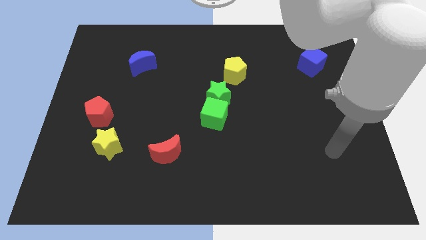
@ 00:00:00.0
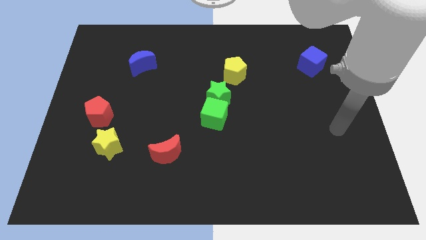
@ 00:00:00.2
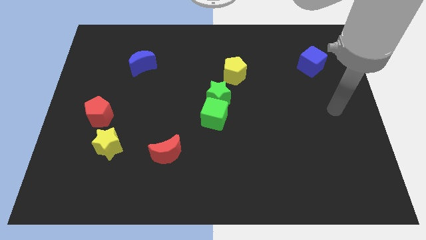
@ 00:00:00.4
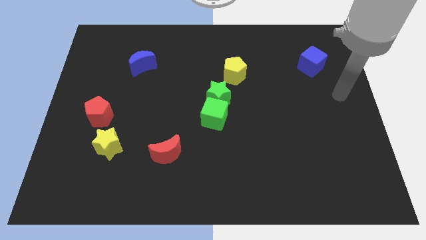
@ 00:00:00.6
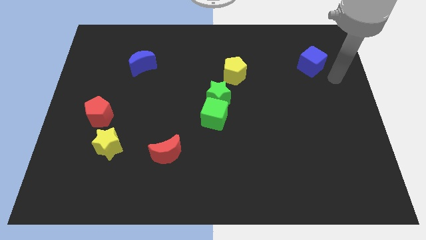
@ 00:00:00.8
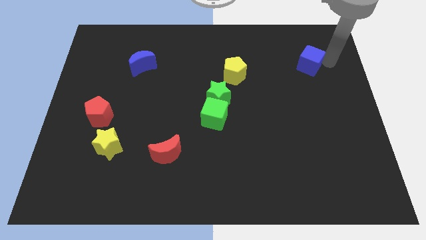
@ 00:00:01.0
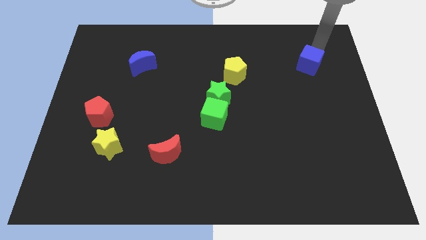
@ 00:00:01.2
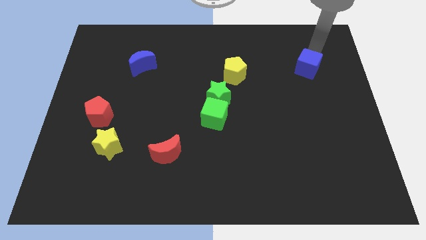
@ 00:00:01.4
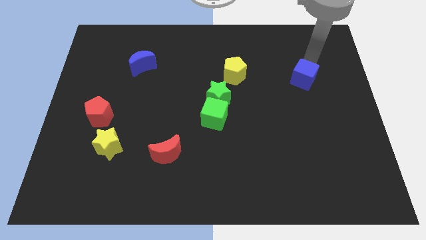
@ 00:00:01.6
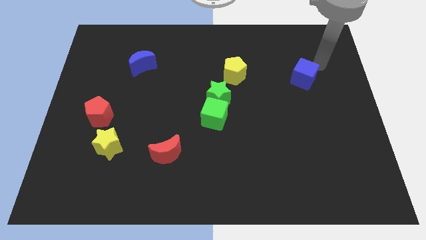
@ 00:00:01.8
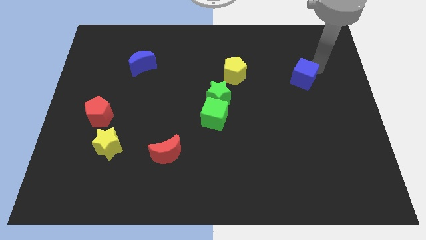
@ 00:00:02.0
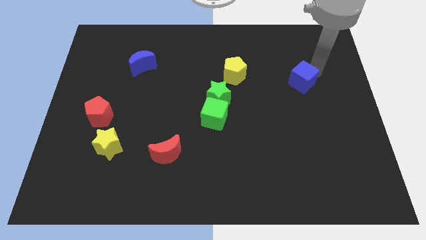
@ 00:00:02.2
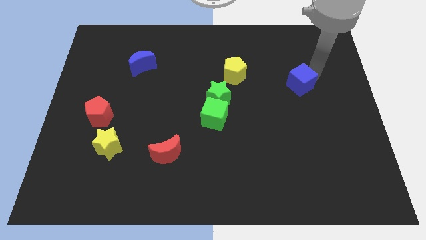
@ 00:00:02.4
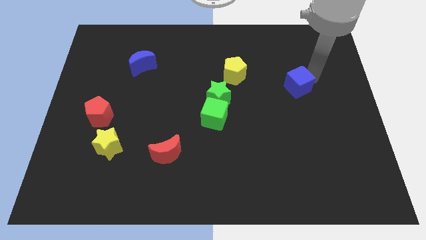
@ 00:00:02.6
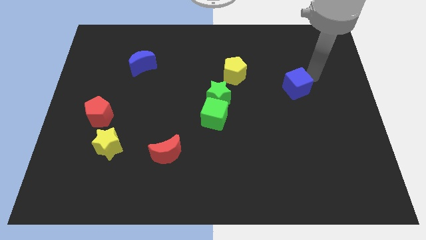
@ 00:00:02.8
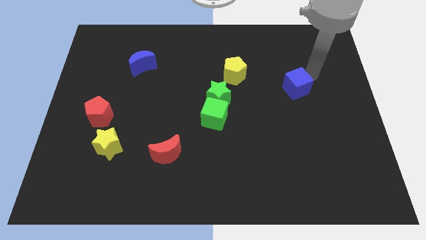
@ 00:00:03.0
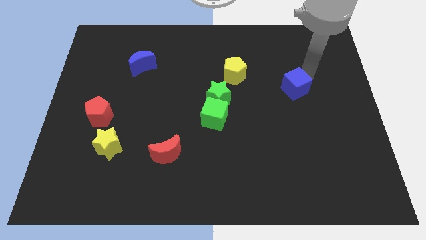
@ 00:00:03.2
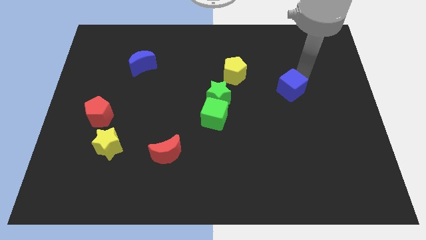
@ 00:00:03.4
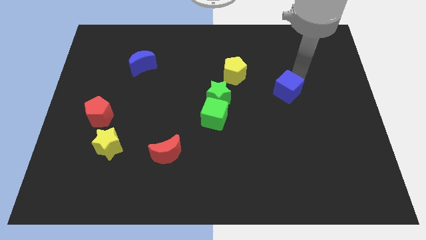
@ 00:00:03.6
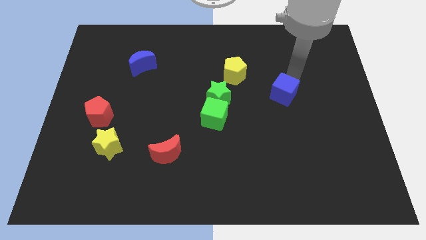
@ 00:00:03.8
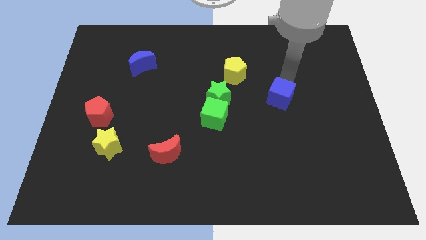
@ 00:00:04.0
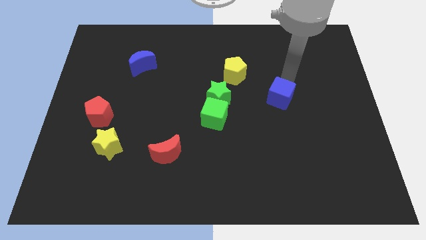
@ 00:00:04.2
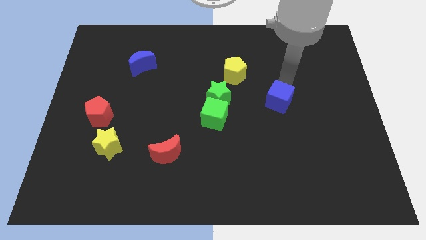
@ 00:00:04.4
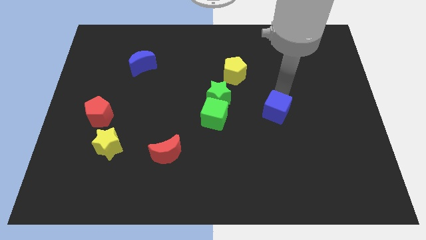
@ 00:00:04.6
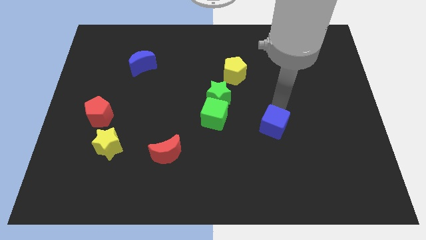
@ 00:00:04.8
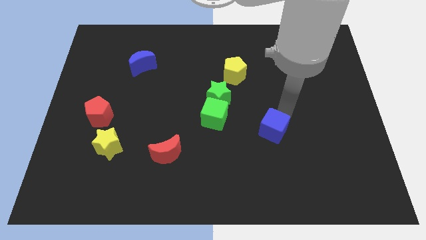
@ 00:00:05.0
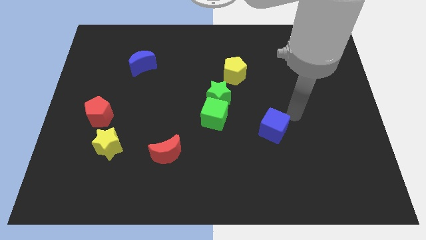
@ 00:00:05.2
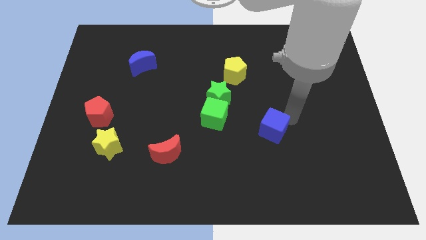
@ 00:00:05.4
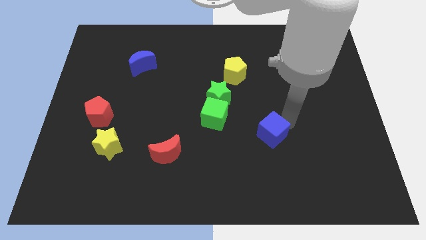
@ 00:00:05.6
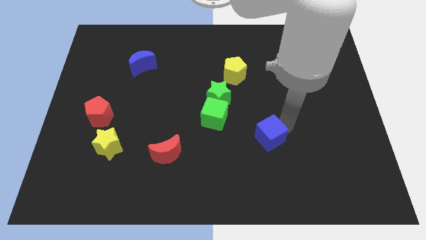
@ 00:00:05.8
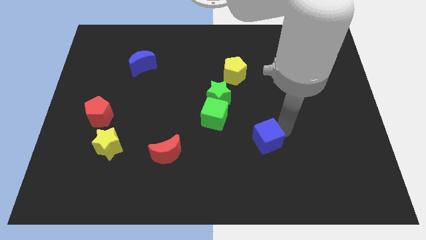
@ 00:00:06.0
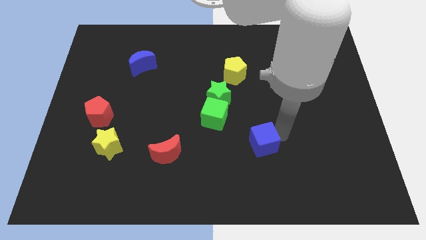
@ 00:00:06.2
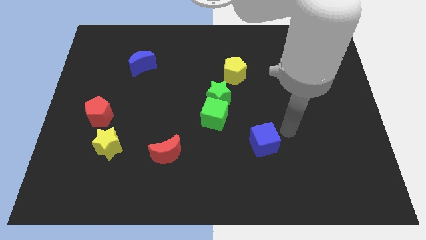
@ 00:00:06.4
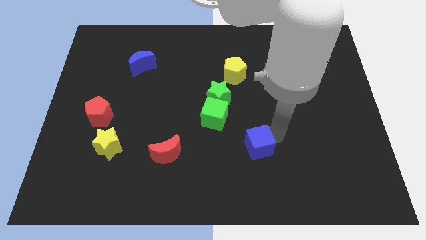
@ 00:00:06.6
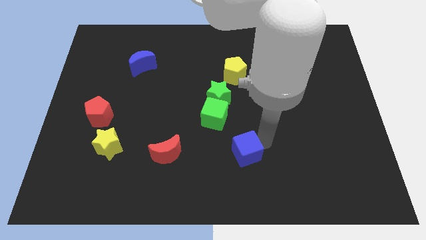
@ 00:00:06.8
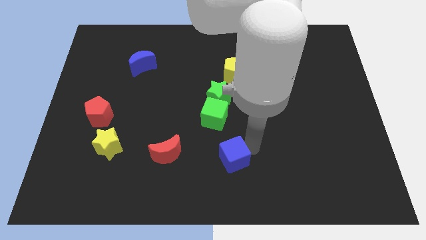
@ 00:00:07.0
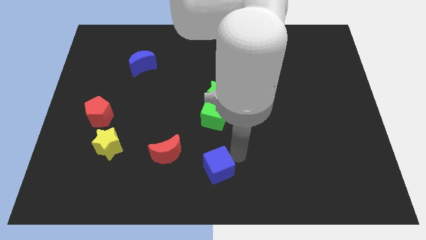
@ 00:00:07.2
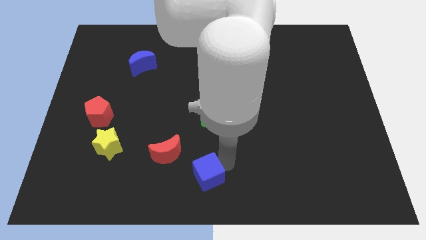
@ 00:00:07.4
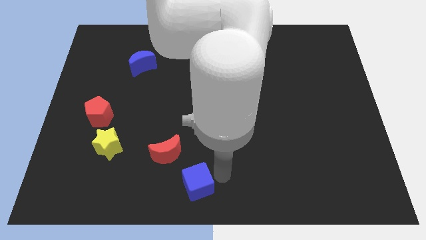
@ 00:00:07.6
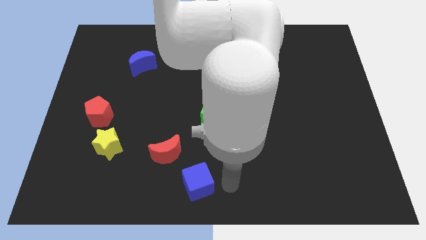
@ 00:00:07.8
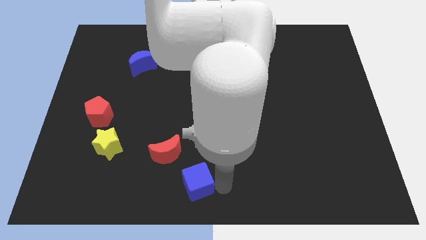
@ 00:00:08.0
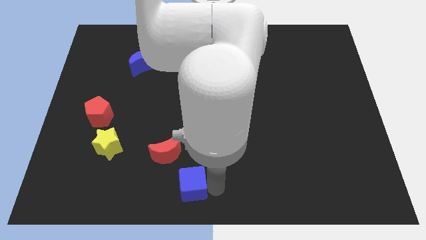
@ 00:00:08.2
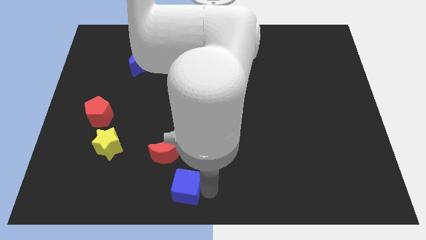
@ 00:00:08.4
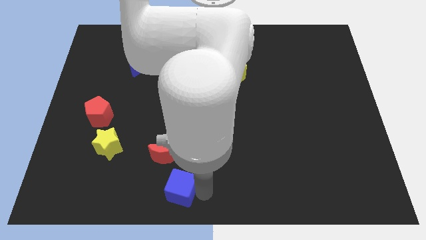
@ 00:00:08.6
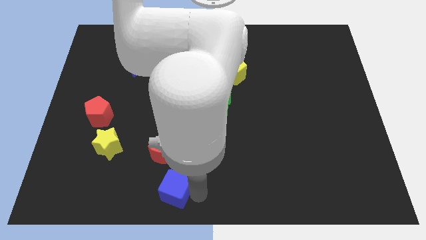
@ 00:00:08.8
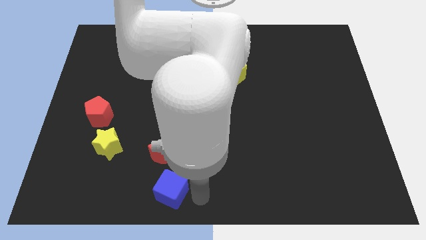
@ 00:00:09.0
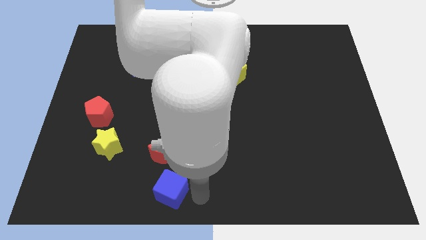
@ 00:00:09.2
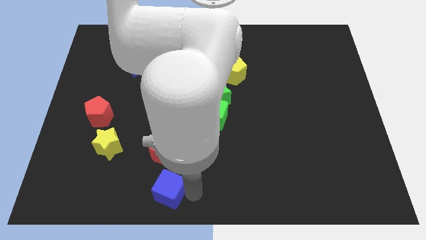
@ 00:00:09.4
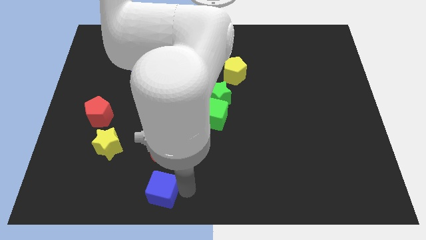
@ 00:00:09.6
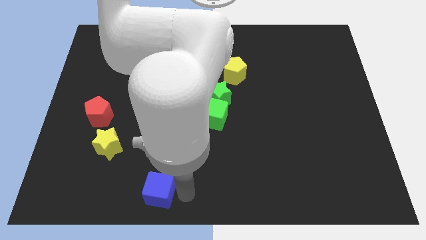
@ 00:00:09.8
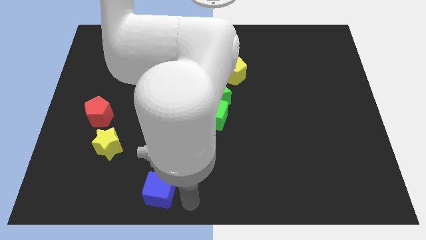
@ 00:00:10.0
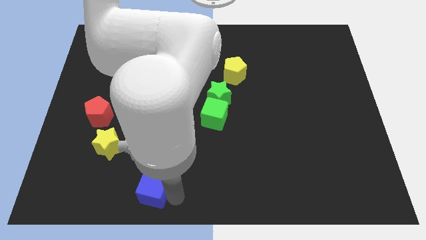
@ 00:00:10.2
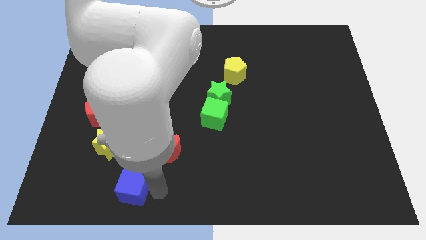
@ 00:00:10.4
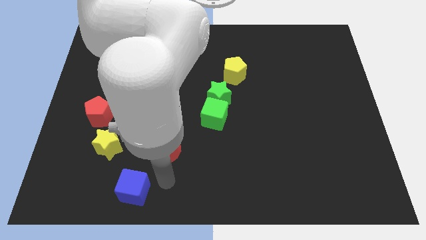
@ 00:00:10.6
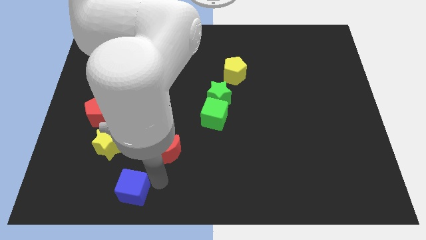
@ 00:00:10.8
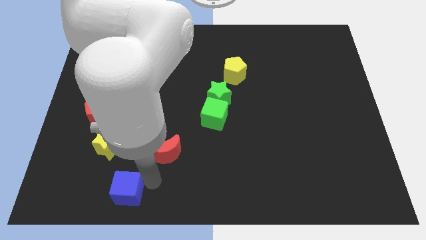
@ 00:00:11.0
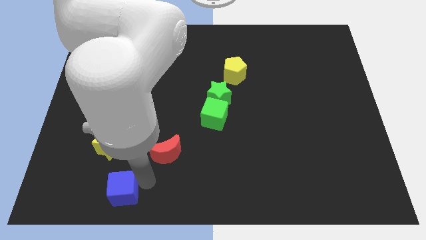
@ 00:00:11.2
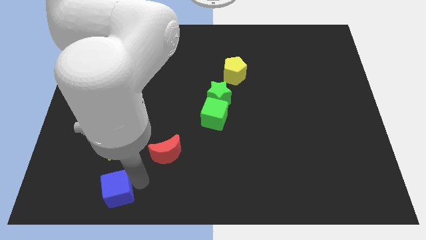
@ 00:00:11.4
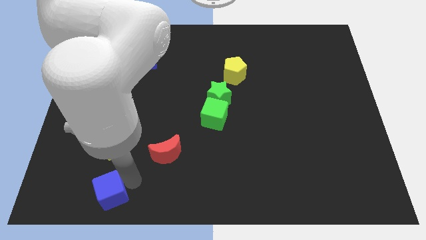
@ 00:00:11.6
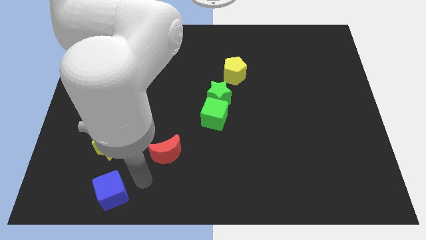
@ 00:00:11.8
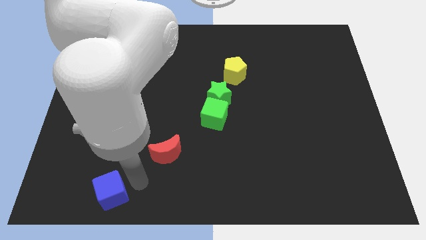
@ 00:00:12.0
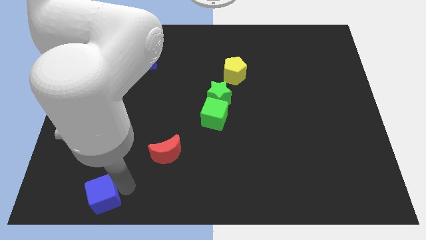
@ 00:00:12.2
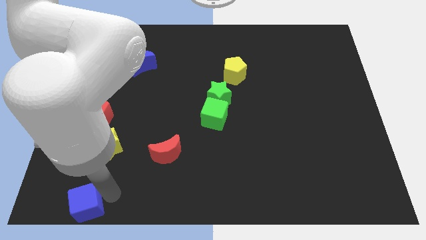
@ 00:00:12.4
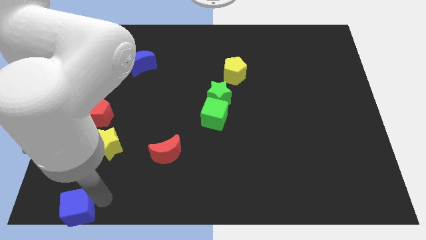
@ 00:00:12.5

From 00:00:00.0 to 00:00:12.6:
move the blue cube to the bottom left corner
